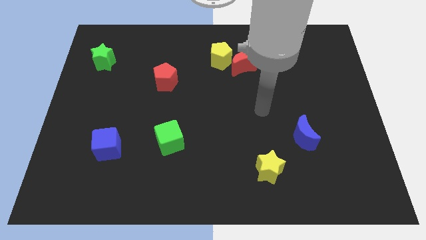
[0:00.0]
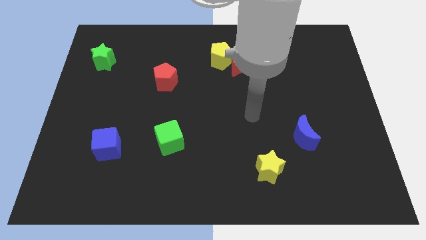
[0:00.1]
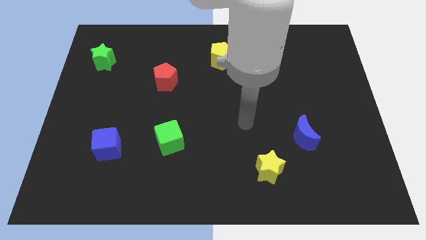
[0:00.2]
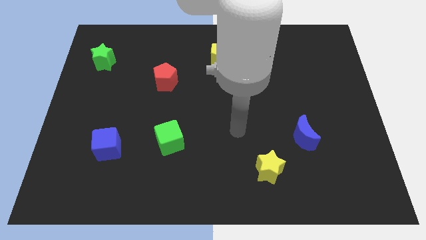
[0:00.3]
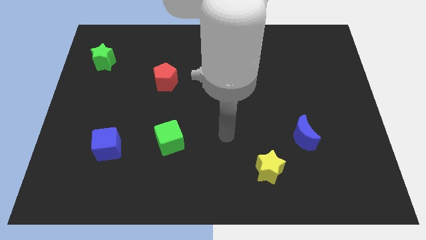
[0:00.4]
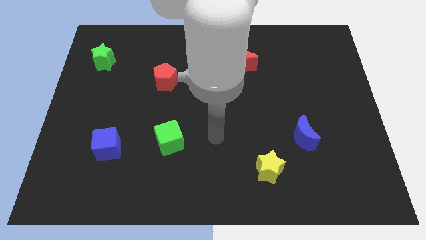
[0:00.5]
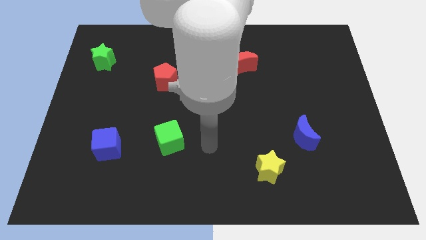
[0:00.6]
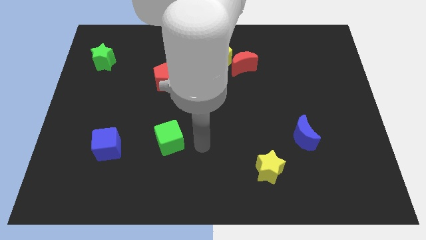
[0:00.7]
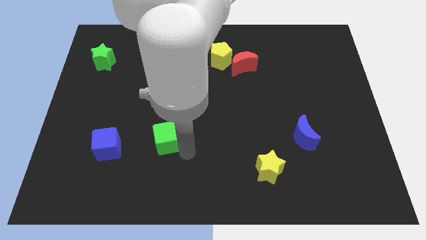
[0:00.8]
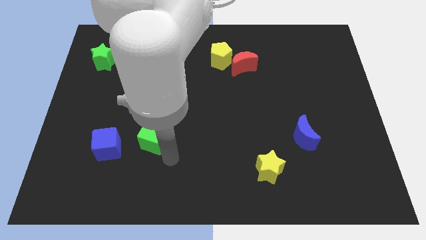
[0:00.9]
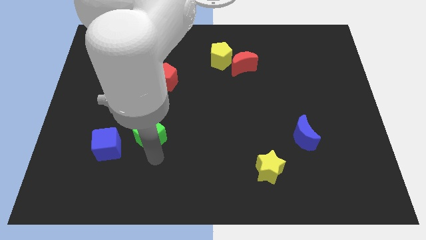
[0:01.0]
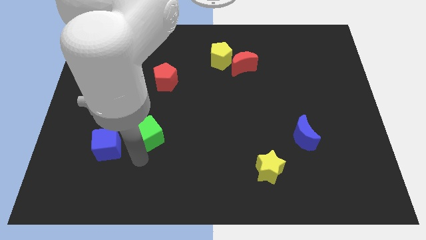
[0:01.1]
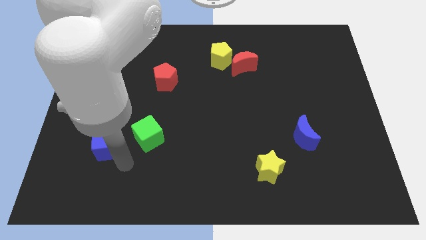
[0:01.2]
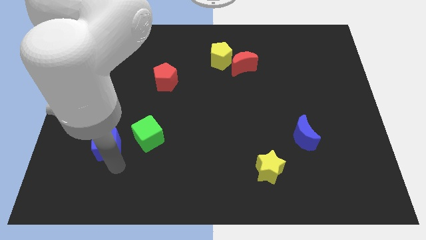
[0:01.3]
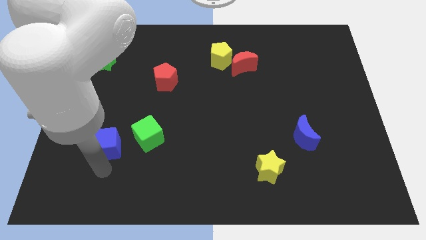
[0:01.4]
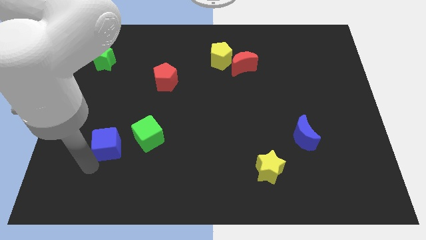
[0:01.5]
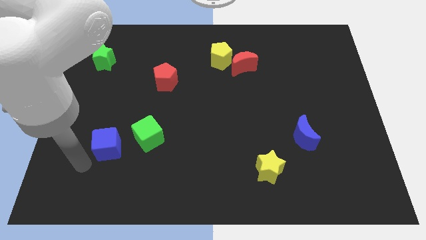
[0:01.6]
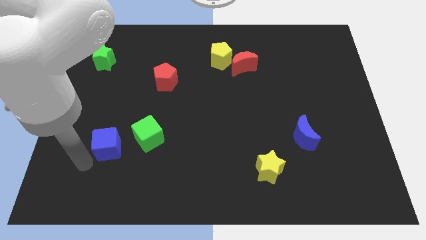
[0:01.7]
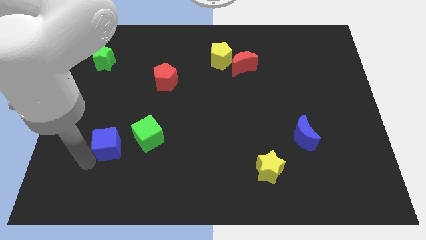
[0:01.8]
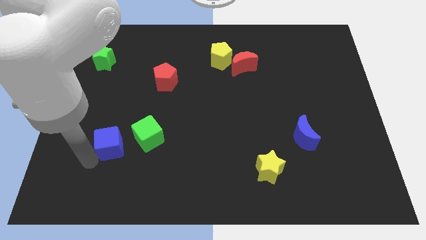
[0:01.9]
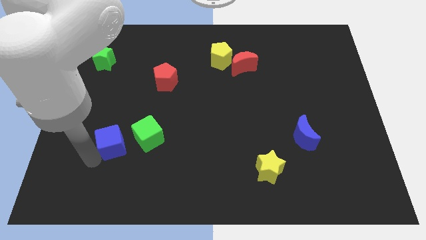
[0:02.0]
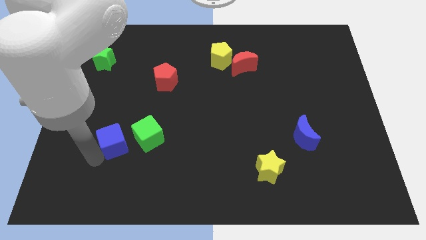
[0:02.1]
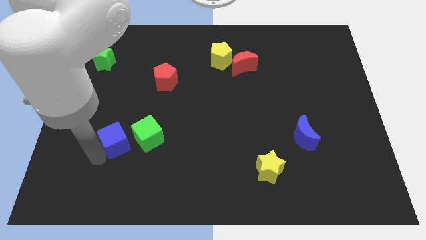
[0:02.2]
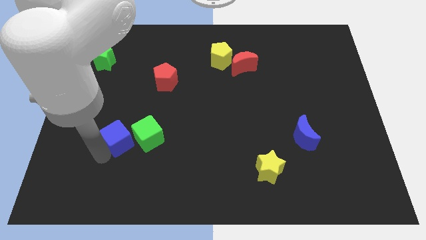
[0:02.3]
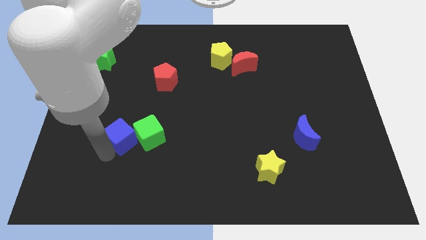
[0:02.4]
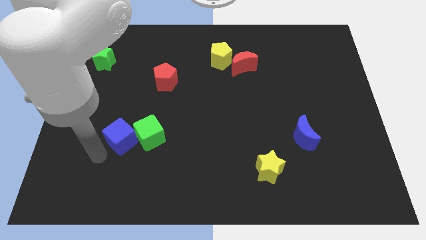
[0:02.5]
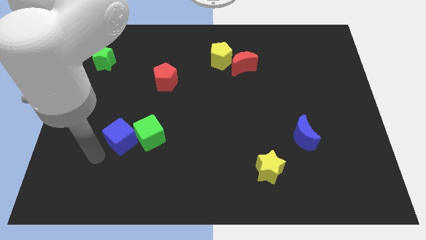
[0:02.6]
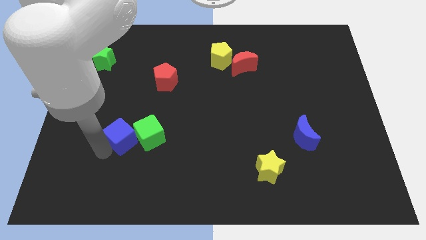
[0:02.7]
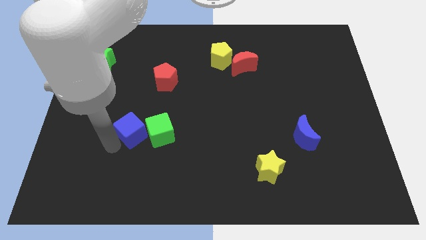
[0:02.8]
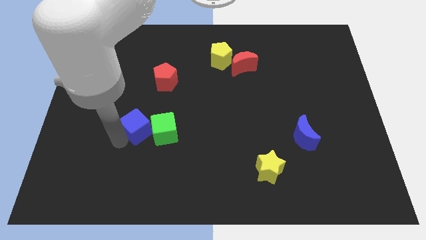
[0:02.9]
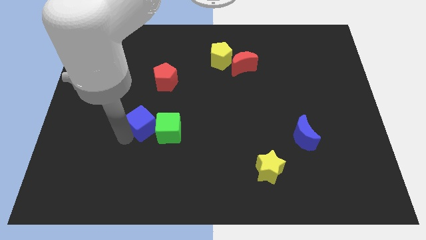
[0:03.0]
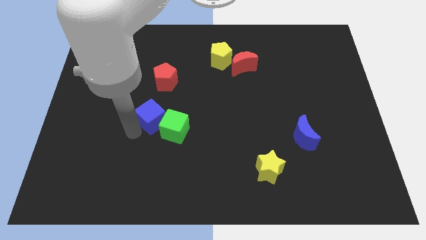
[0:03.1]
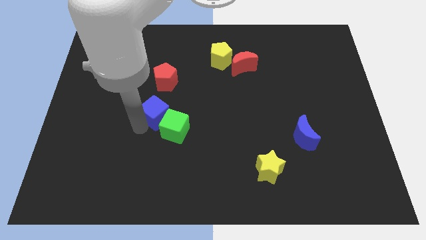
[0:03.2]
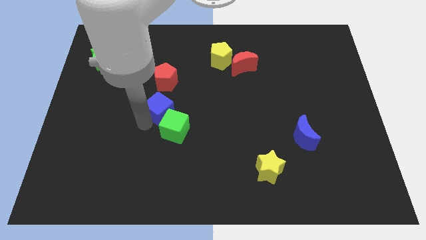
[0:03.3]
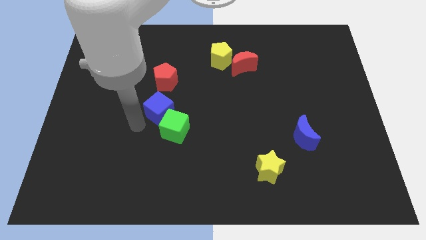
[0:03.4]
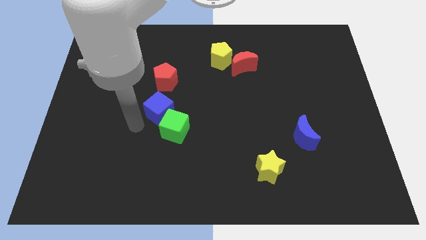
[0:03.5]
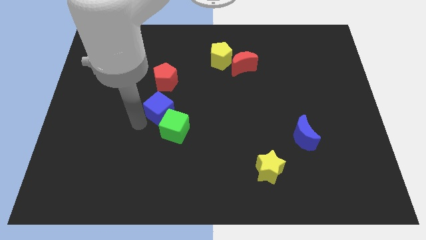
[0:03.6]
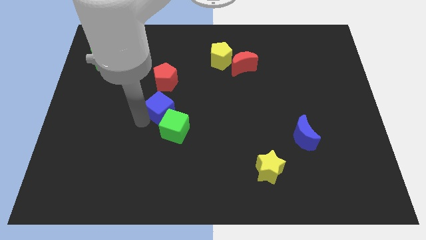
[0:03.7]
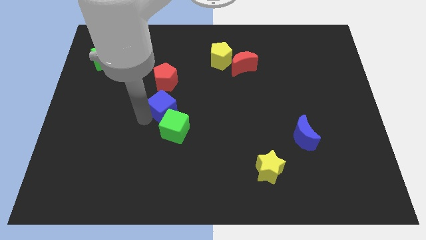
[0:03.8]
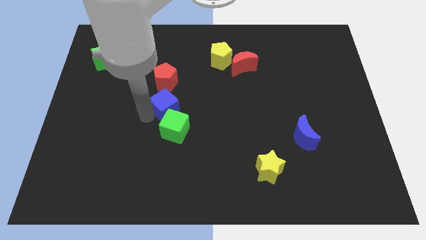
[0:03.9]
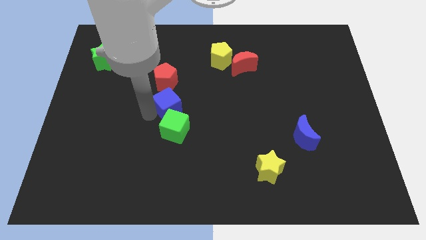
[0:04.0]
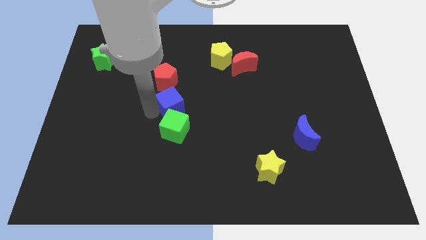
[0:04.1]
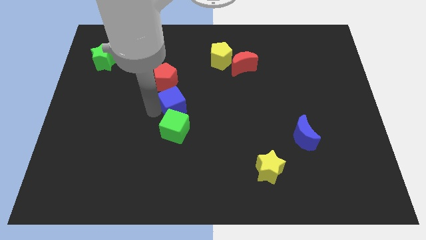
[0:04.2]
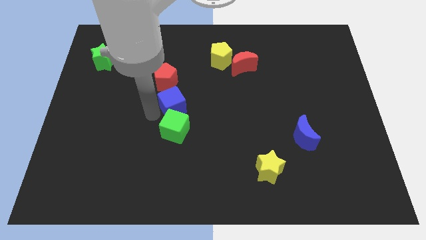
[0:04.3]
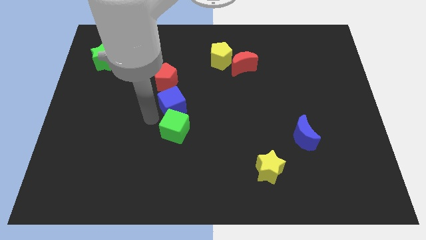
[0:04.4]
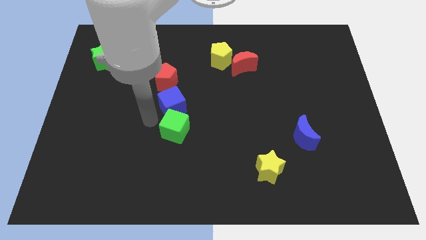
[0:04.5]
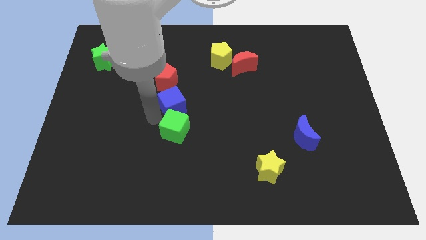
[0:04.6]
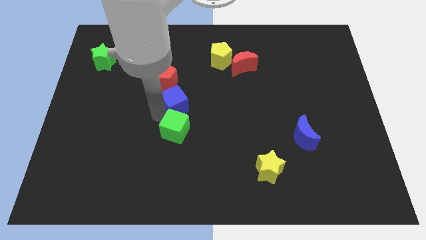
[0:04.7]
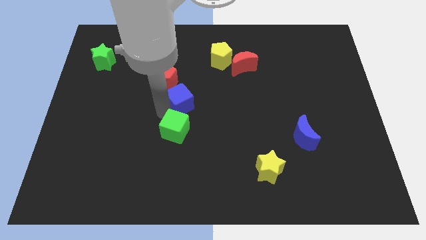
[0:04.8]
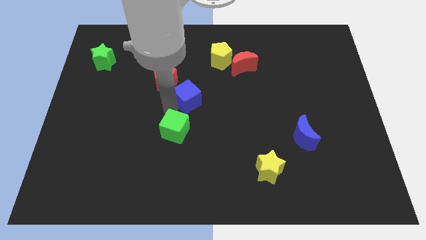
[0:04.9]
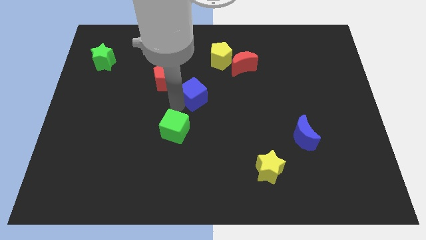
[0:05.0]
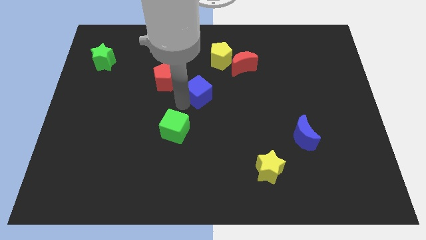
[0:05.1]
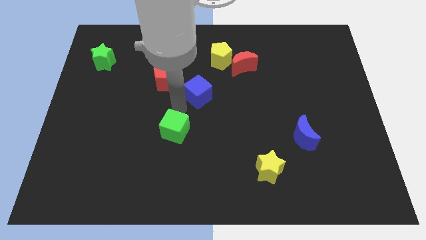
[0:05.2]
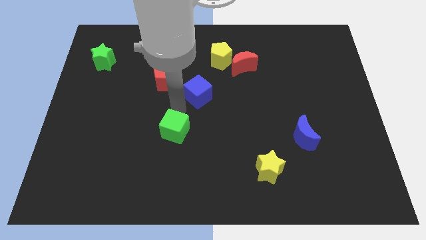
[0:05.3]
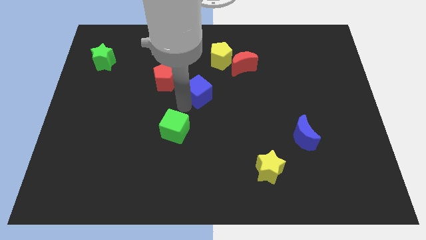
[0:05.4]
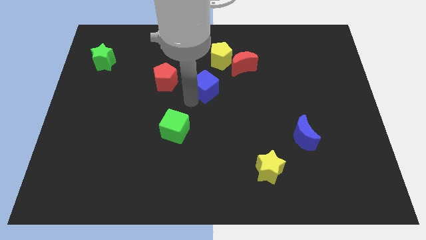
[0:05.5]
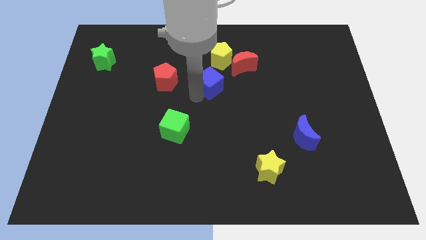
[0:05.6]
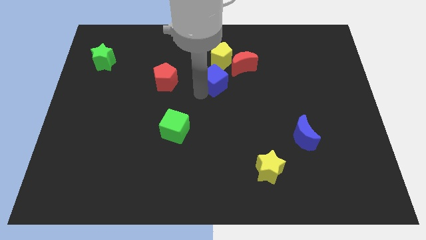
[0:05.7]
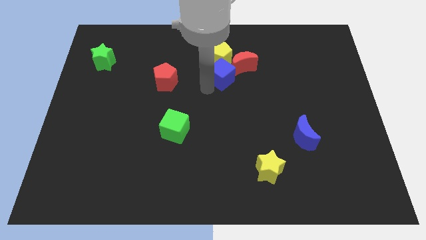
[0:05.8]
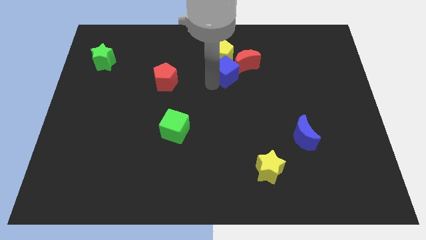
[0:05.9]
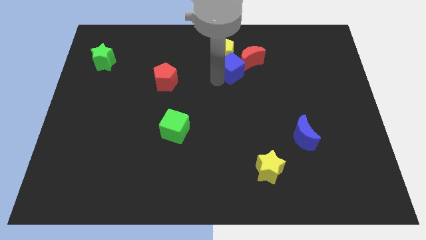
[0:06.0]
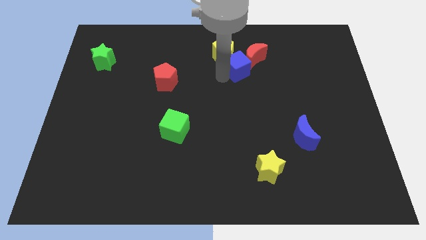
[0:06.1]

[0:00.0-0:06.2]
move the blue cube to the red moon

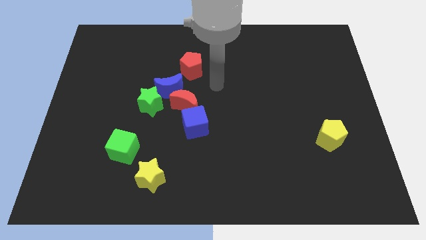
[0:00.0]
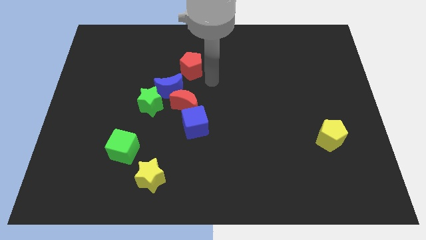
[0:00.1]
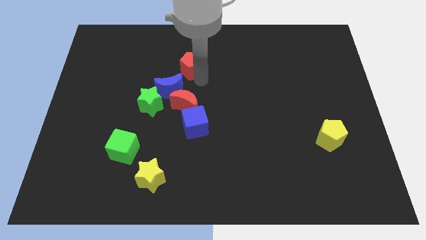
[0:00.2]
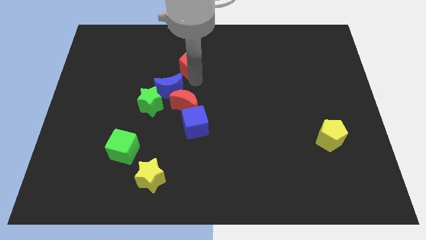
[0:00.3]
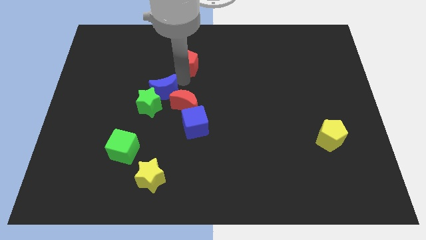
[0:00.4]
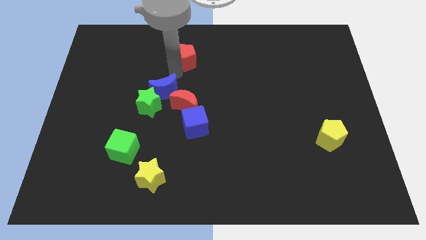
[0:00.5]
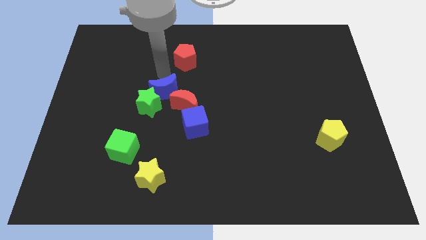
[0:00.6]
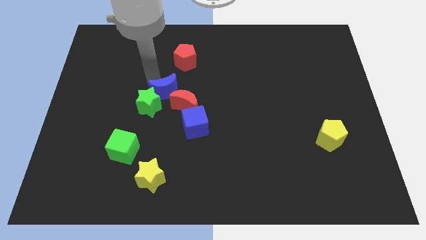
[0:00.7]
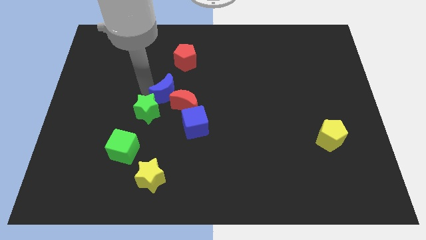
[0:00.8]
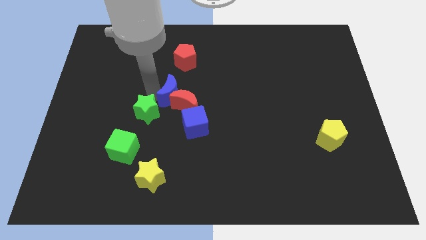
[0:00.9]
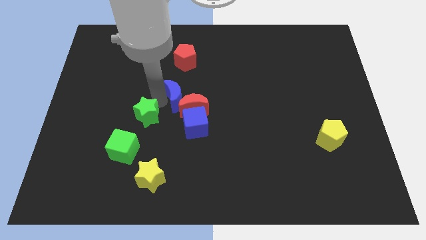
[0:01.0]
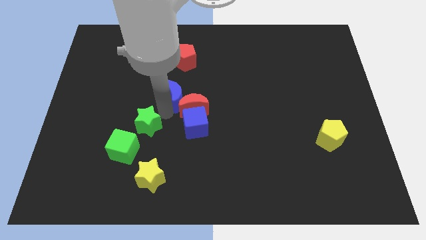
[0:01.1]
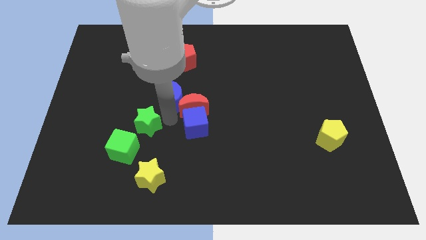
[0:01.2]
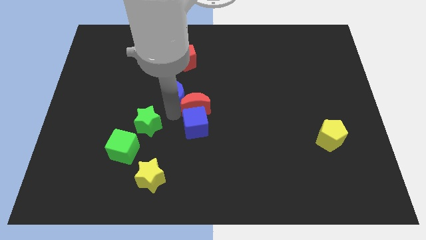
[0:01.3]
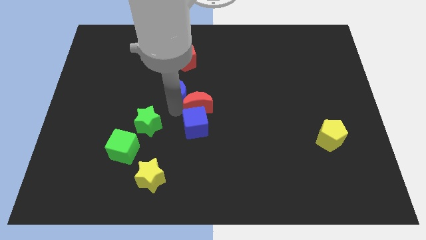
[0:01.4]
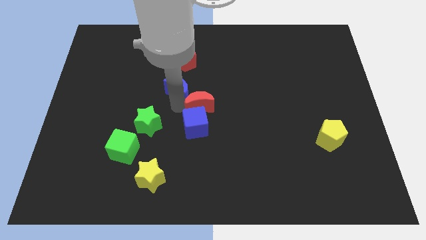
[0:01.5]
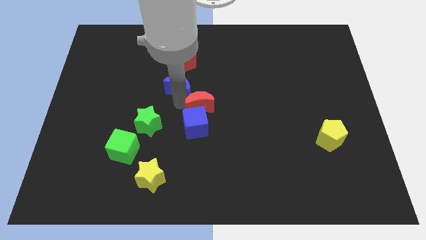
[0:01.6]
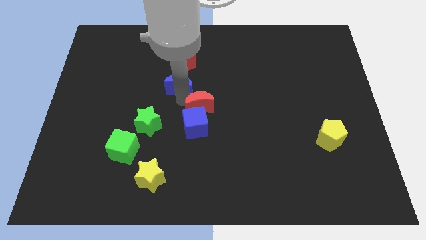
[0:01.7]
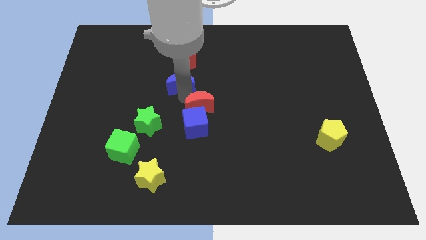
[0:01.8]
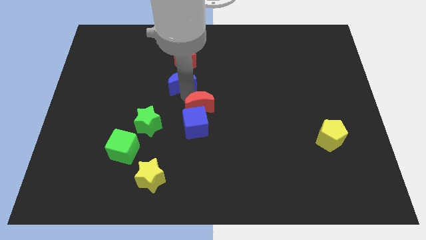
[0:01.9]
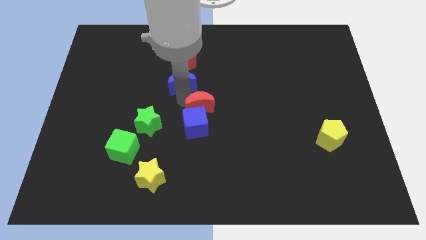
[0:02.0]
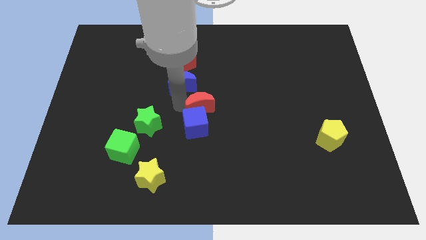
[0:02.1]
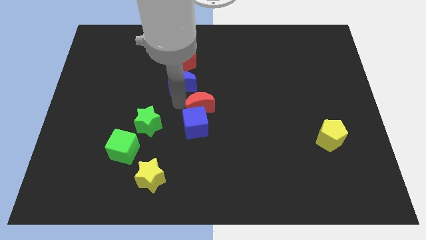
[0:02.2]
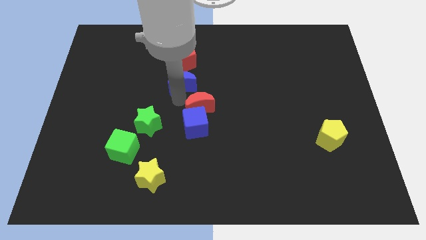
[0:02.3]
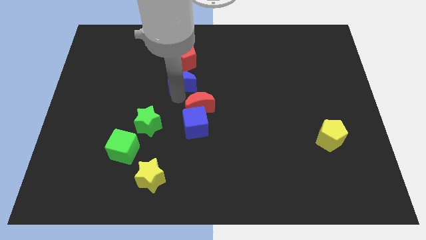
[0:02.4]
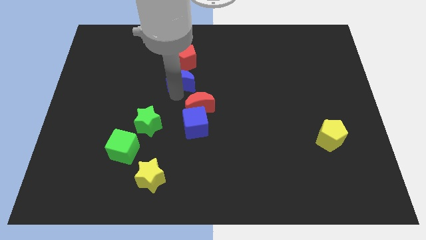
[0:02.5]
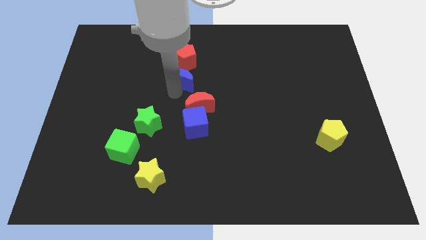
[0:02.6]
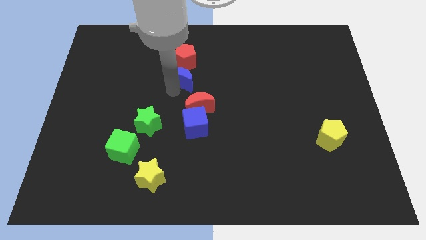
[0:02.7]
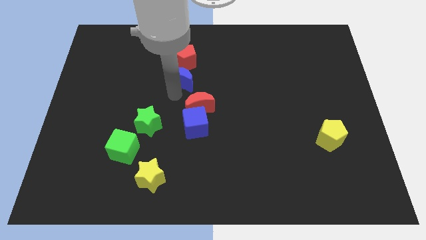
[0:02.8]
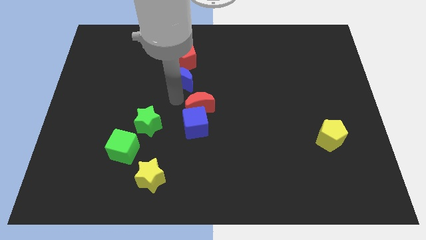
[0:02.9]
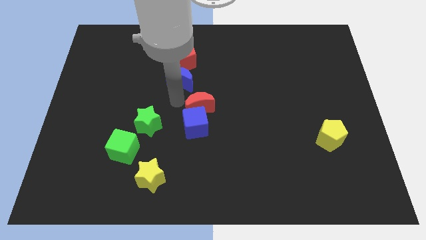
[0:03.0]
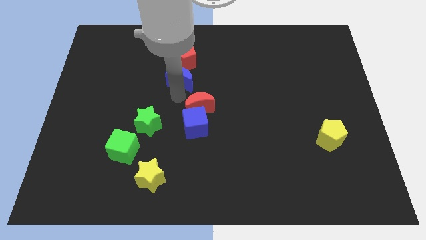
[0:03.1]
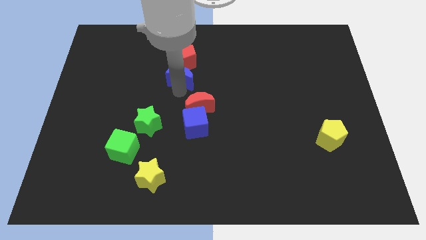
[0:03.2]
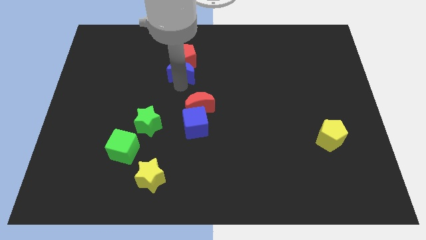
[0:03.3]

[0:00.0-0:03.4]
push the blue moon towards the red pentagon
